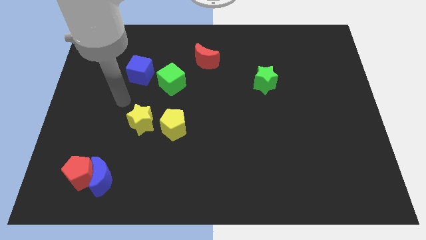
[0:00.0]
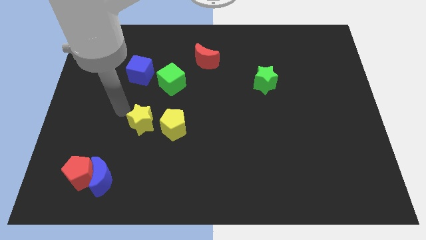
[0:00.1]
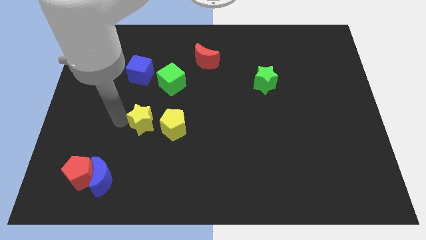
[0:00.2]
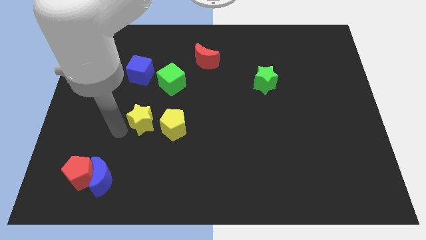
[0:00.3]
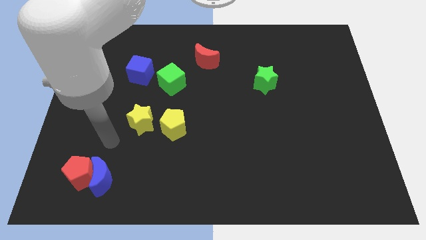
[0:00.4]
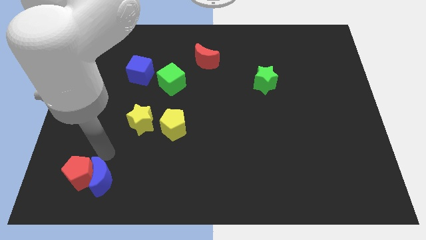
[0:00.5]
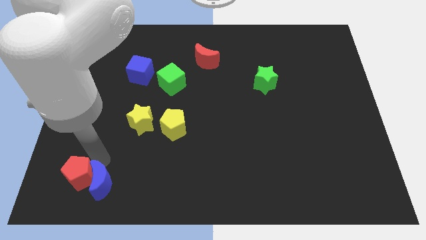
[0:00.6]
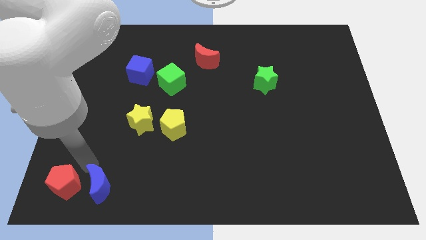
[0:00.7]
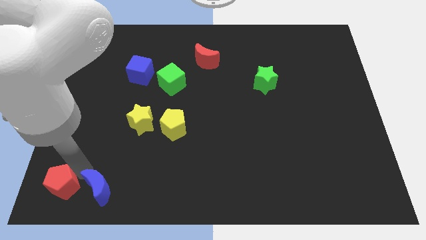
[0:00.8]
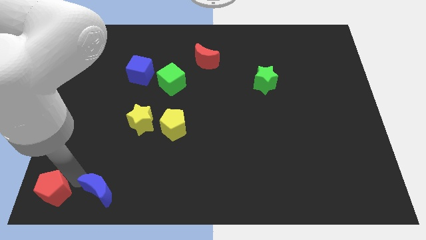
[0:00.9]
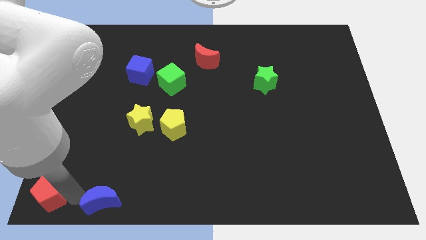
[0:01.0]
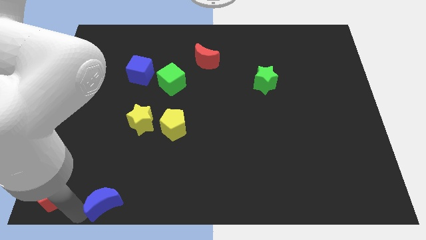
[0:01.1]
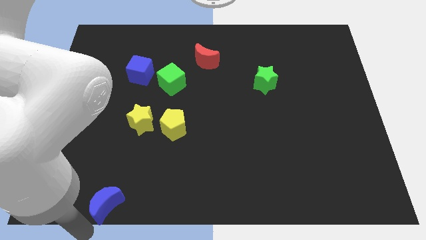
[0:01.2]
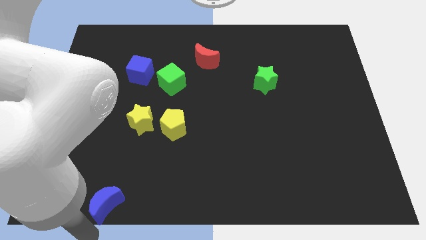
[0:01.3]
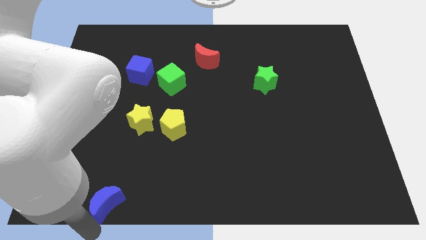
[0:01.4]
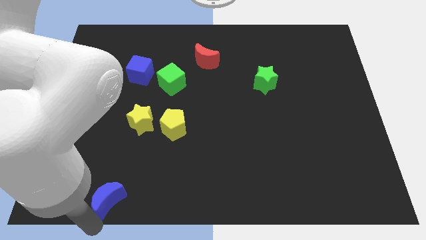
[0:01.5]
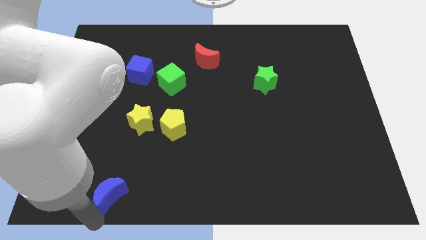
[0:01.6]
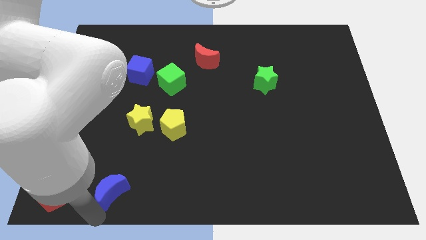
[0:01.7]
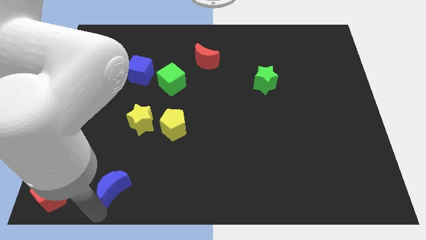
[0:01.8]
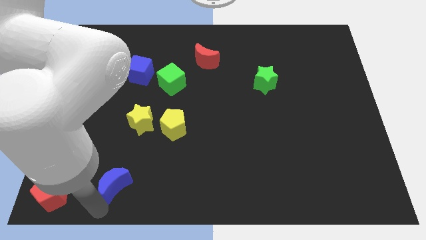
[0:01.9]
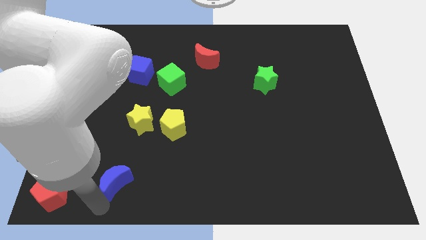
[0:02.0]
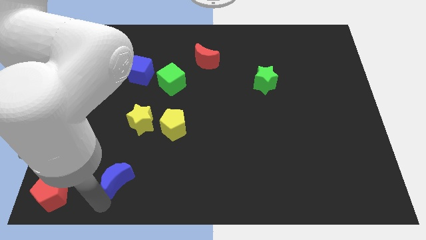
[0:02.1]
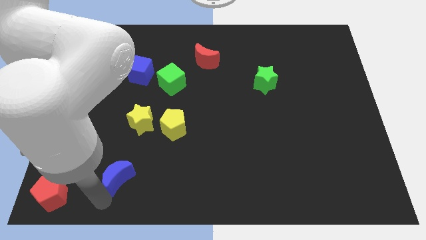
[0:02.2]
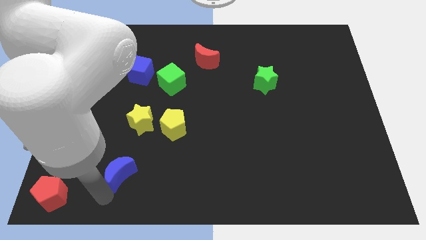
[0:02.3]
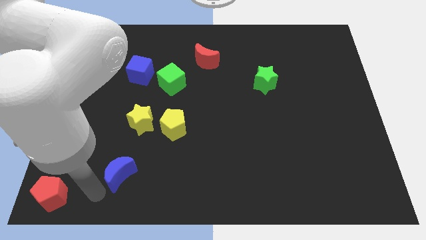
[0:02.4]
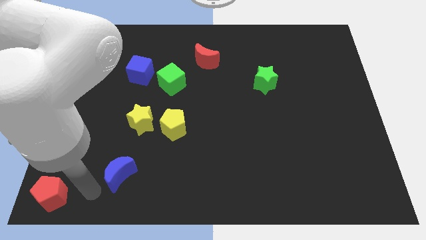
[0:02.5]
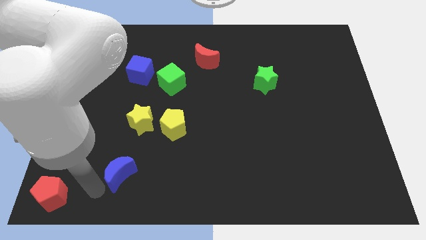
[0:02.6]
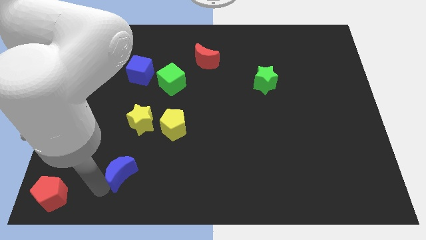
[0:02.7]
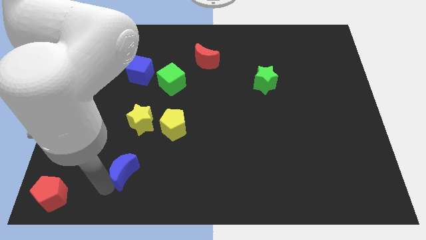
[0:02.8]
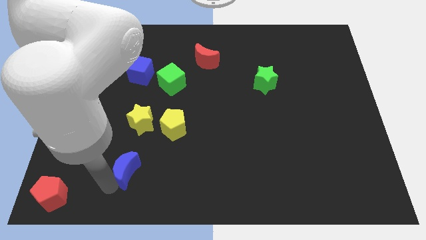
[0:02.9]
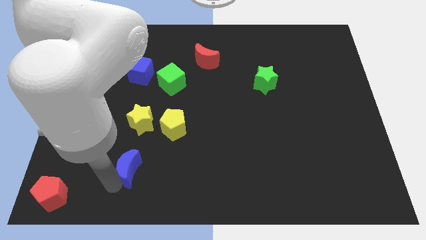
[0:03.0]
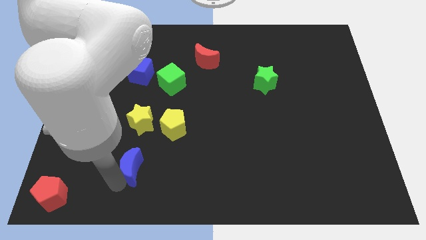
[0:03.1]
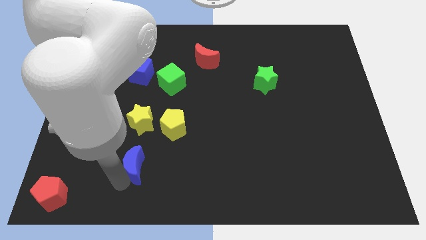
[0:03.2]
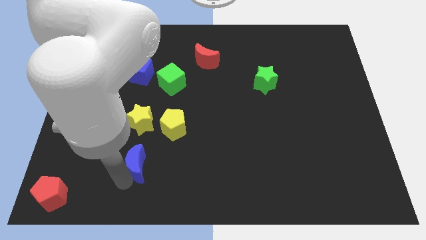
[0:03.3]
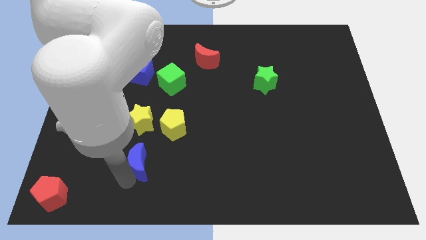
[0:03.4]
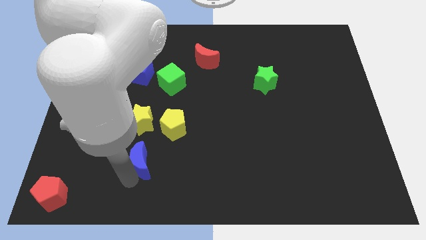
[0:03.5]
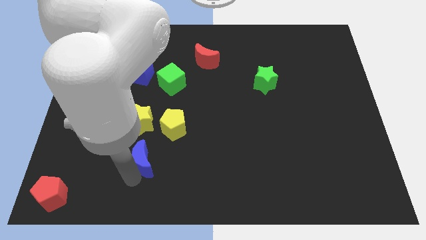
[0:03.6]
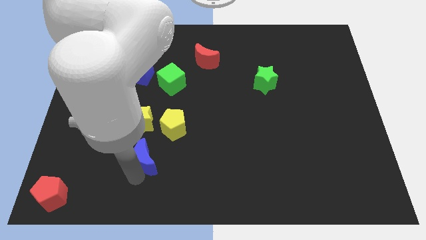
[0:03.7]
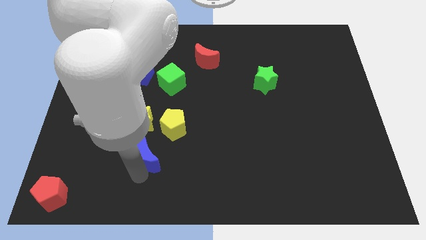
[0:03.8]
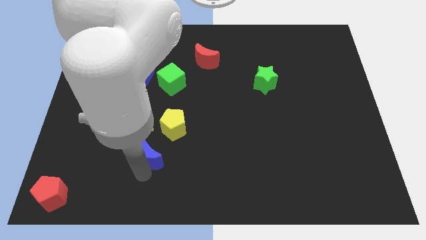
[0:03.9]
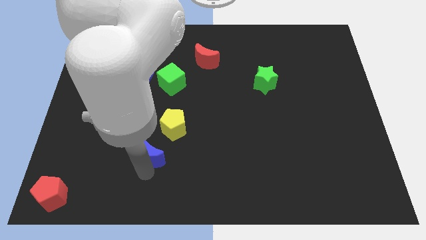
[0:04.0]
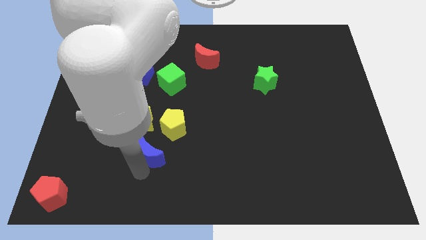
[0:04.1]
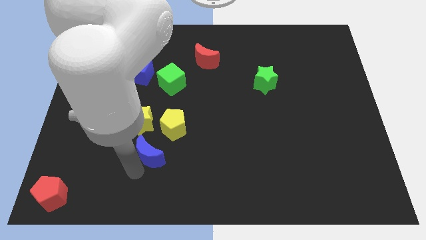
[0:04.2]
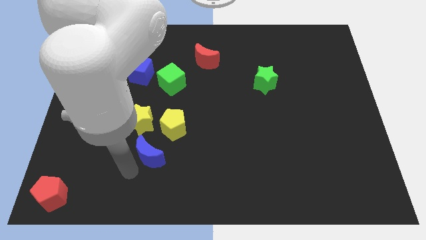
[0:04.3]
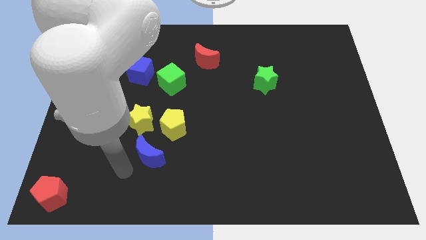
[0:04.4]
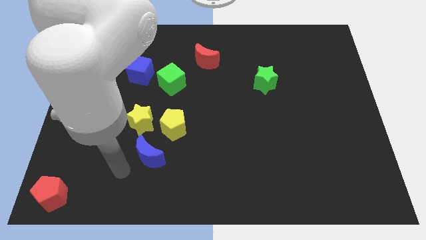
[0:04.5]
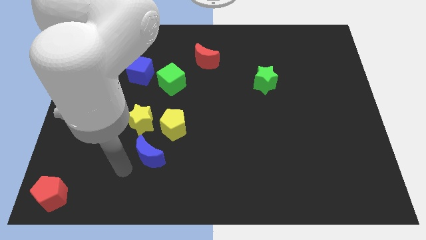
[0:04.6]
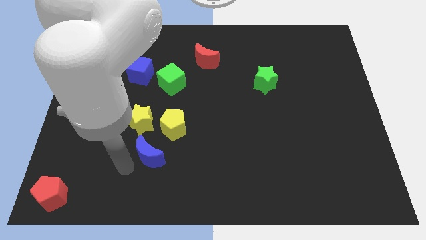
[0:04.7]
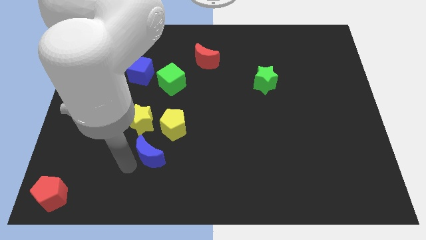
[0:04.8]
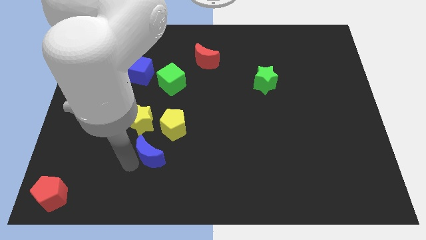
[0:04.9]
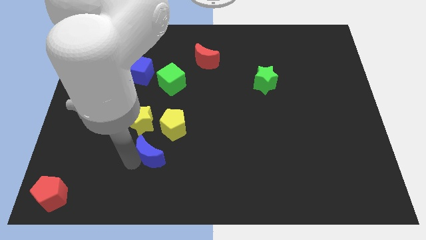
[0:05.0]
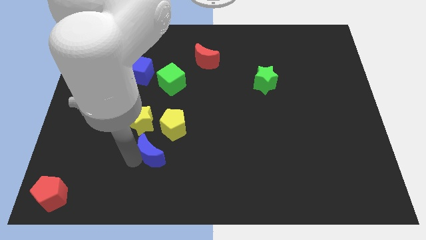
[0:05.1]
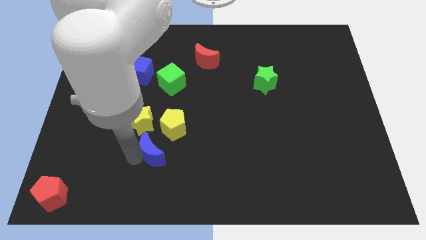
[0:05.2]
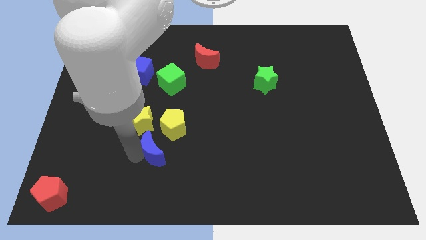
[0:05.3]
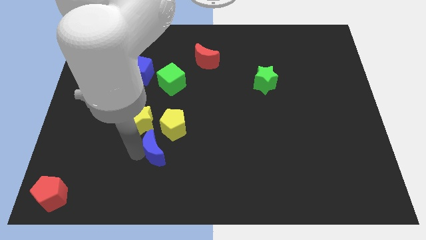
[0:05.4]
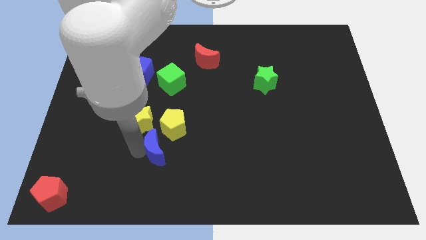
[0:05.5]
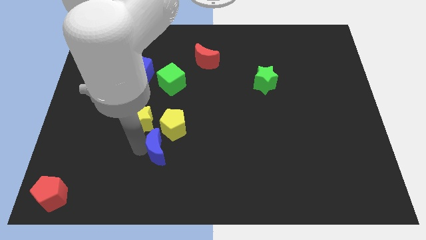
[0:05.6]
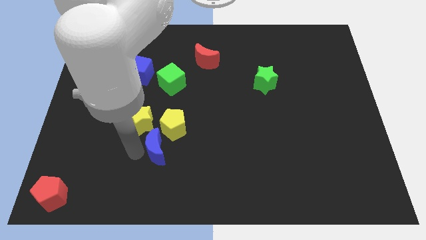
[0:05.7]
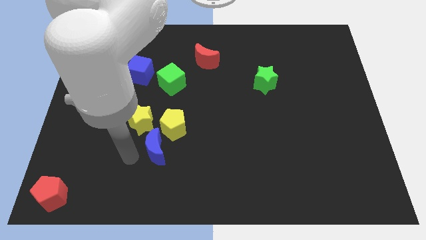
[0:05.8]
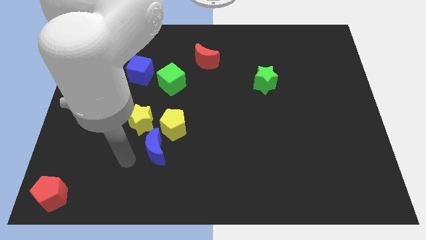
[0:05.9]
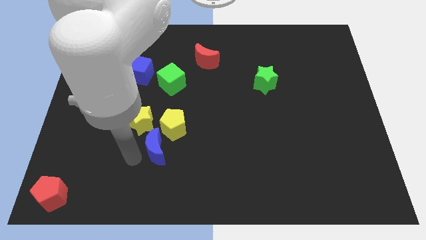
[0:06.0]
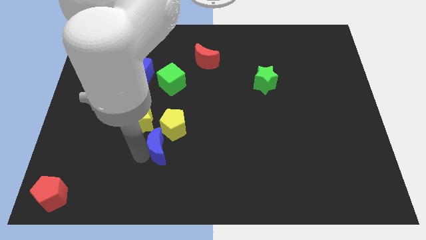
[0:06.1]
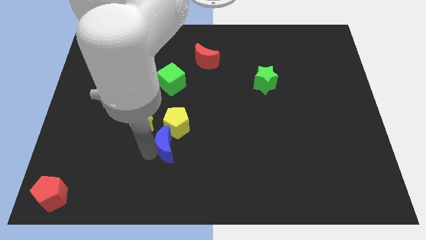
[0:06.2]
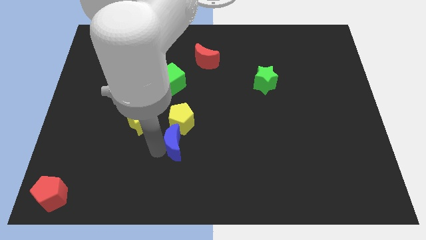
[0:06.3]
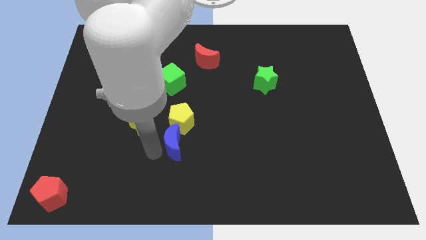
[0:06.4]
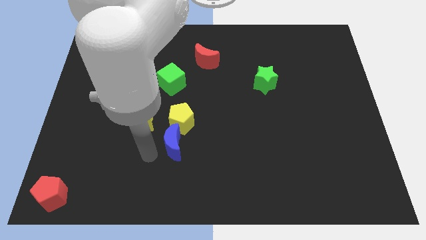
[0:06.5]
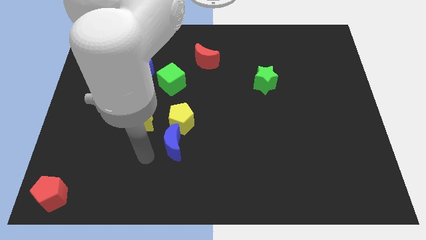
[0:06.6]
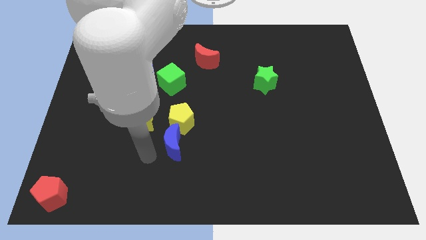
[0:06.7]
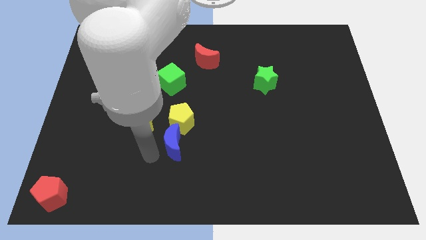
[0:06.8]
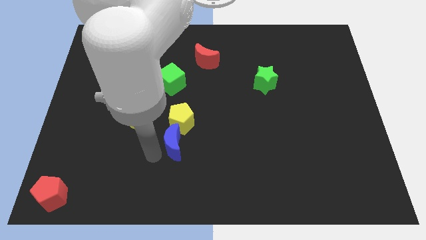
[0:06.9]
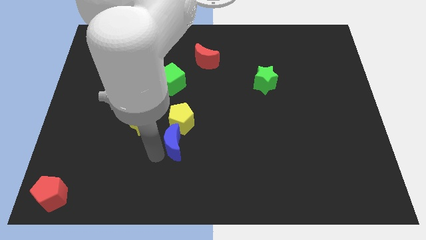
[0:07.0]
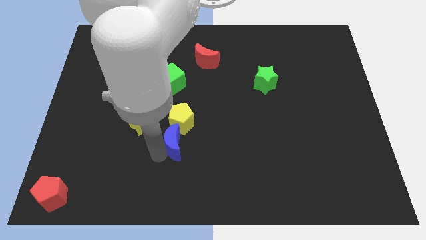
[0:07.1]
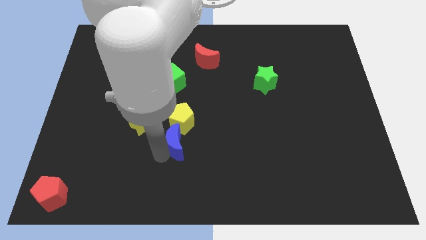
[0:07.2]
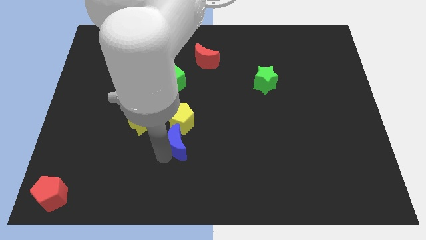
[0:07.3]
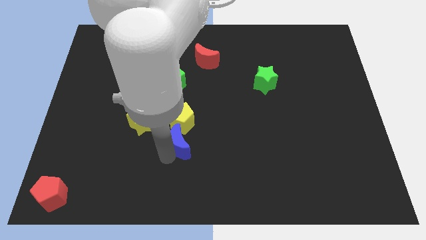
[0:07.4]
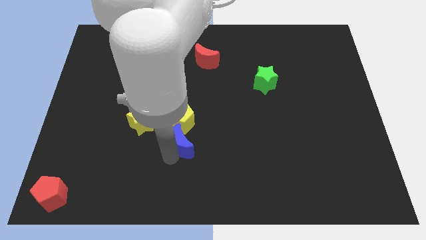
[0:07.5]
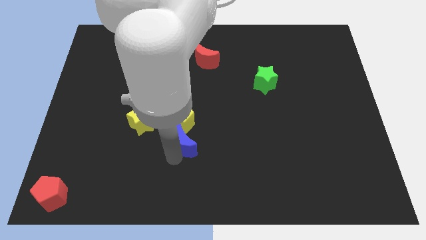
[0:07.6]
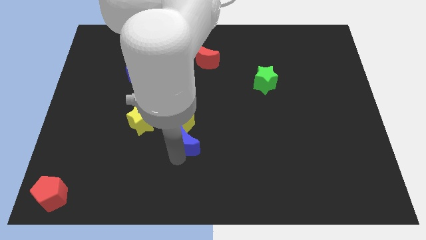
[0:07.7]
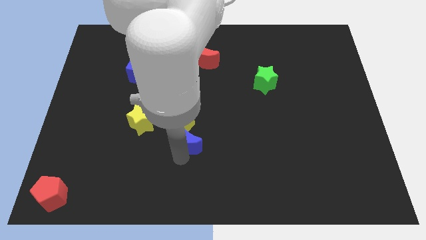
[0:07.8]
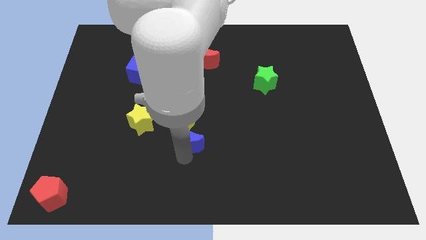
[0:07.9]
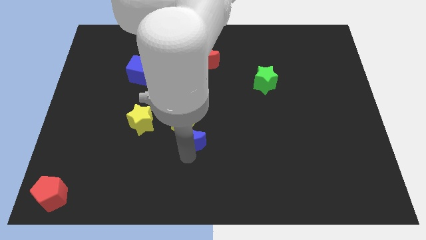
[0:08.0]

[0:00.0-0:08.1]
push the blue moon to the center of the board

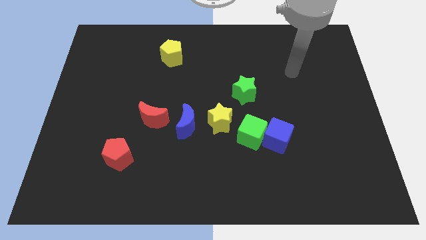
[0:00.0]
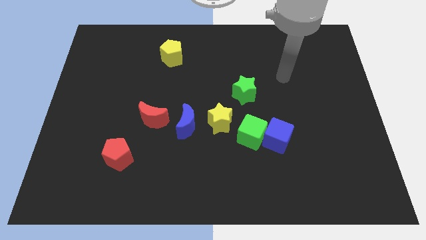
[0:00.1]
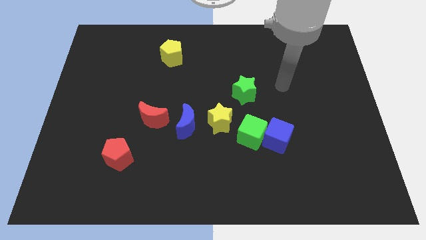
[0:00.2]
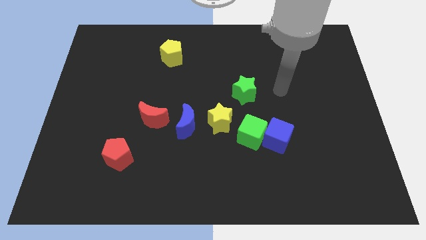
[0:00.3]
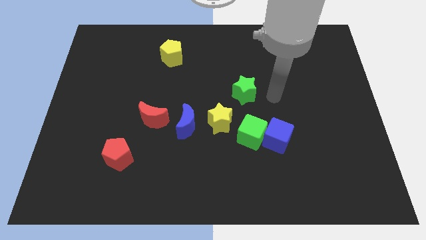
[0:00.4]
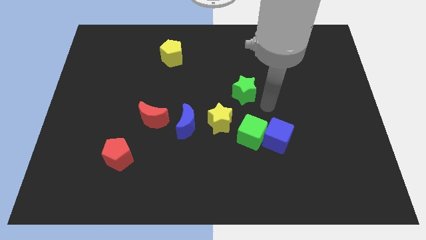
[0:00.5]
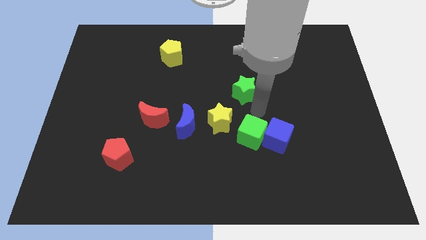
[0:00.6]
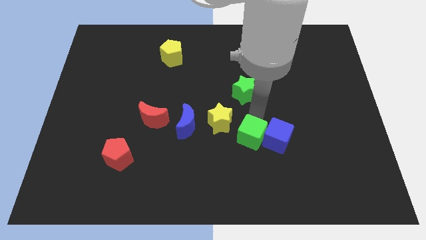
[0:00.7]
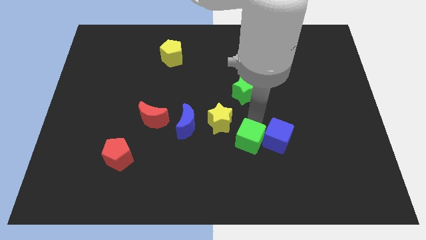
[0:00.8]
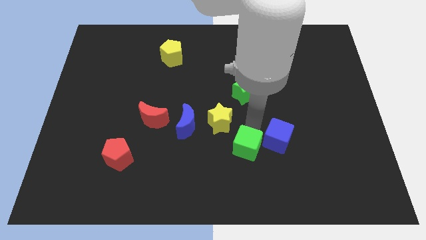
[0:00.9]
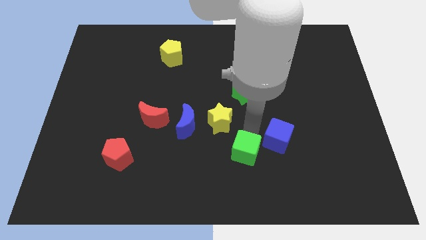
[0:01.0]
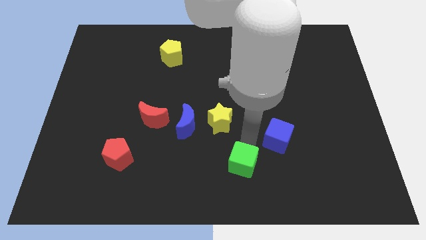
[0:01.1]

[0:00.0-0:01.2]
push the green cube to the bottom side
